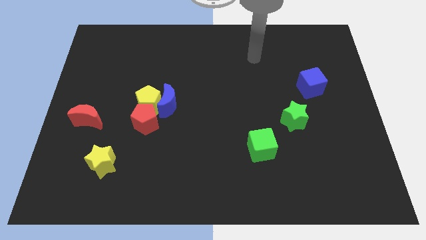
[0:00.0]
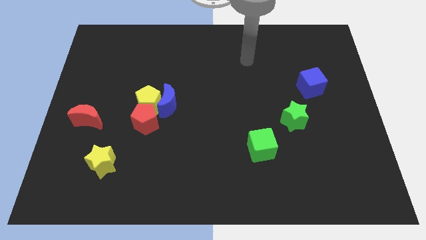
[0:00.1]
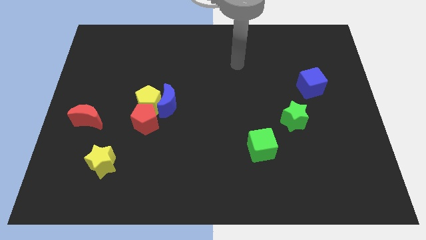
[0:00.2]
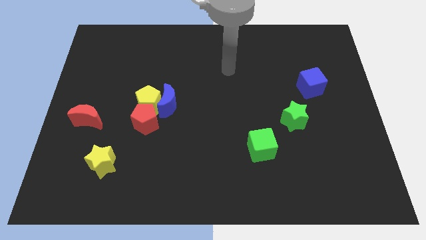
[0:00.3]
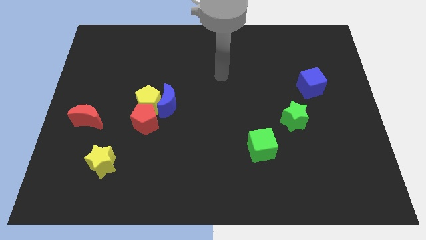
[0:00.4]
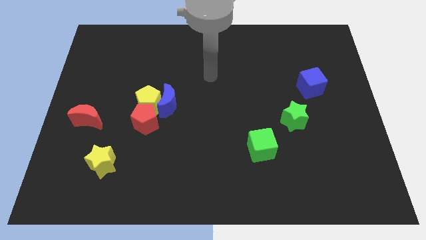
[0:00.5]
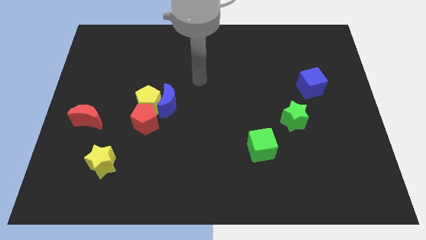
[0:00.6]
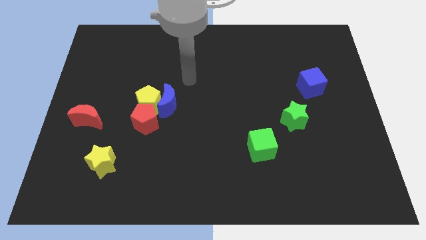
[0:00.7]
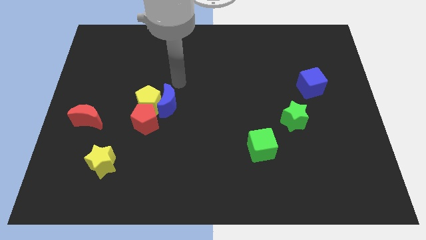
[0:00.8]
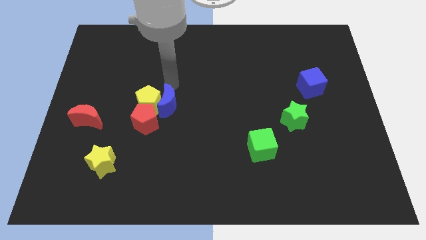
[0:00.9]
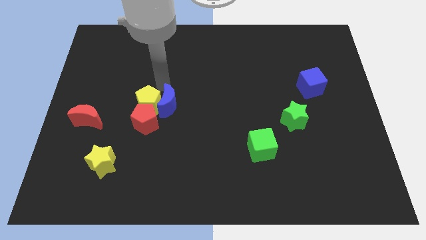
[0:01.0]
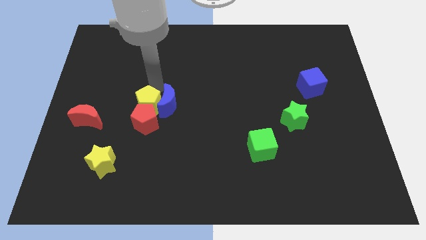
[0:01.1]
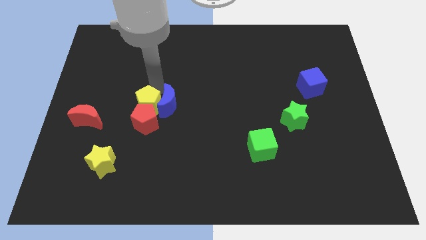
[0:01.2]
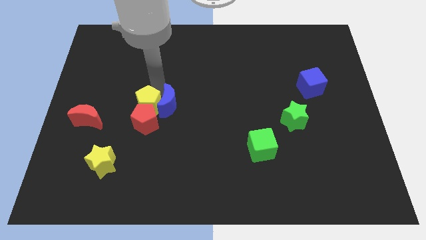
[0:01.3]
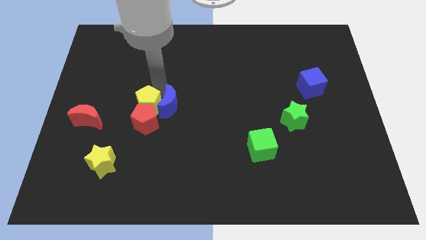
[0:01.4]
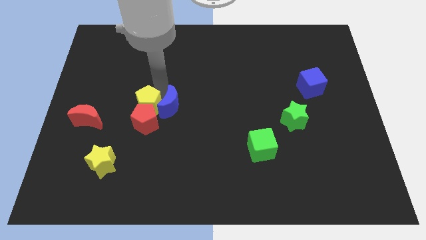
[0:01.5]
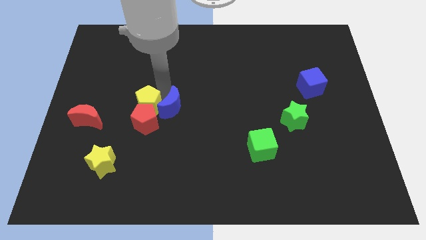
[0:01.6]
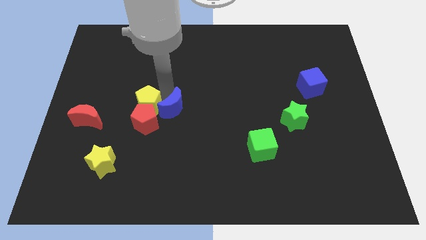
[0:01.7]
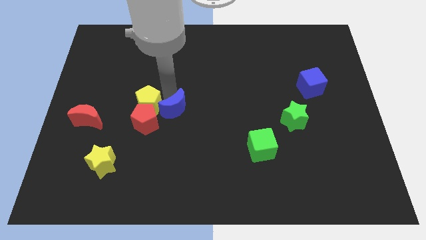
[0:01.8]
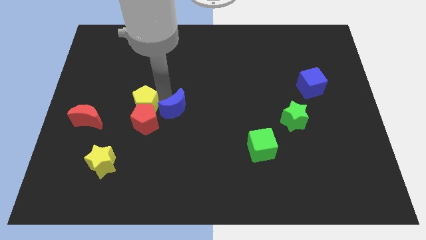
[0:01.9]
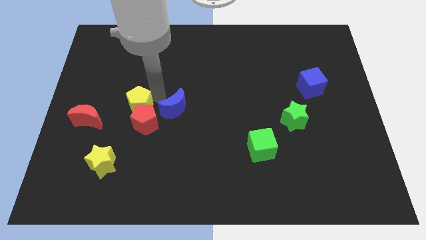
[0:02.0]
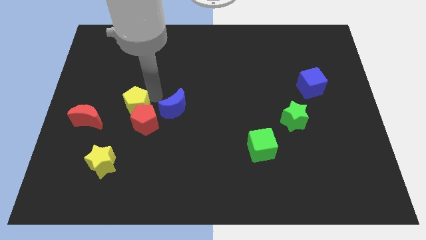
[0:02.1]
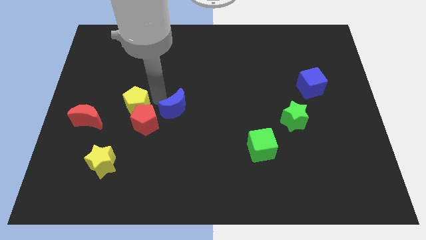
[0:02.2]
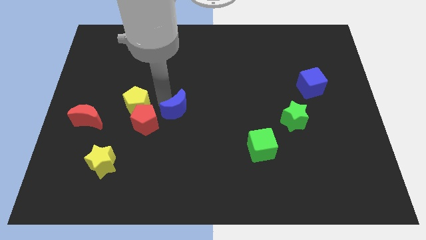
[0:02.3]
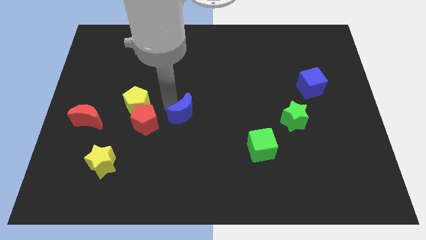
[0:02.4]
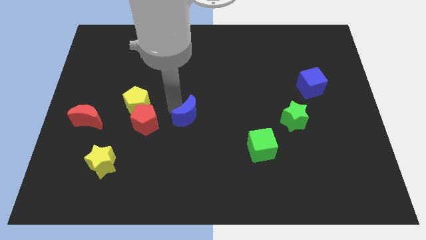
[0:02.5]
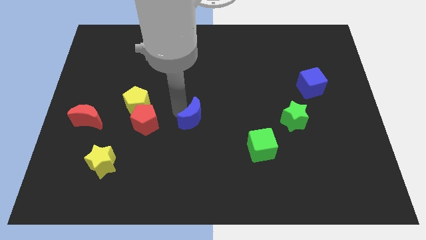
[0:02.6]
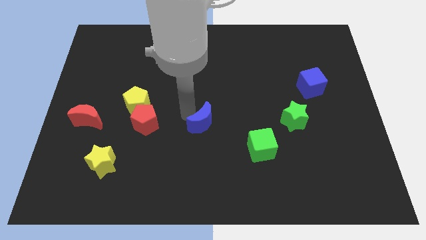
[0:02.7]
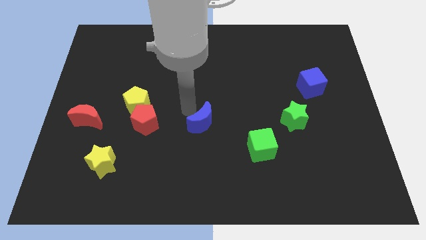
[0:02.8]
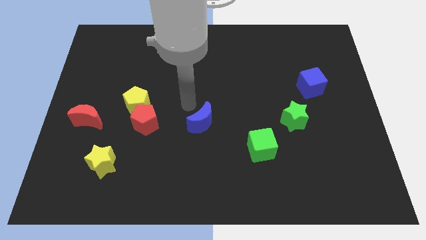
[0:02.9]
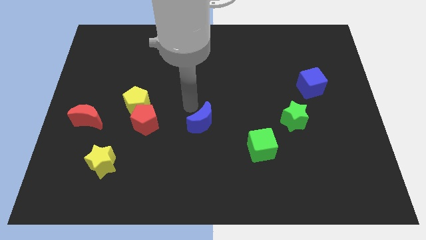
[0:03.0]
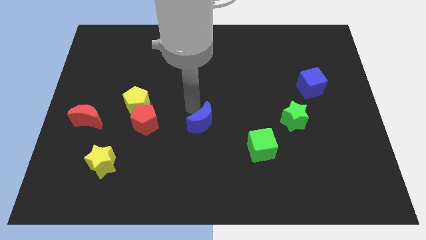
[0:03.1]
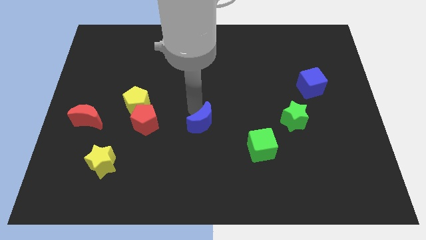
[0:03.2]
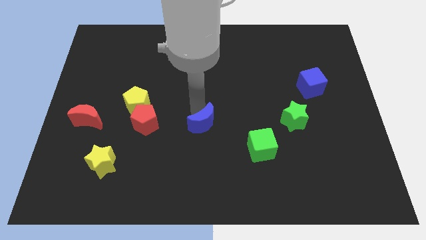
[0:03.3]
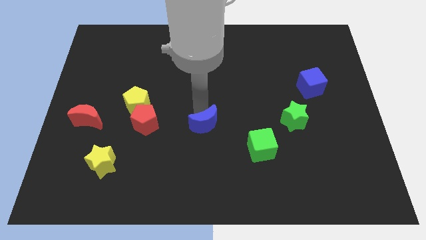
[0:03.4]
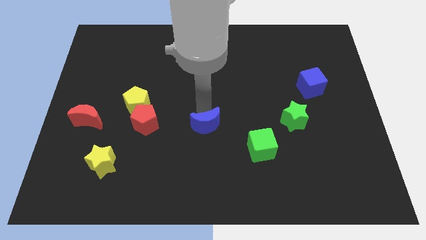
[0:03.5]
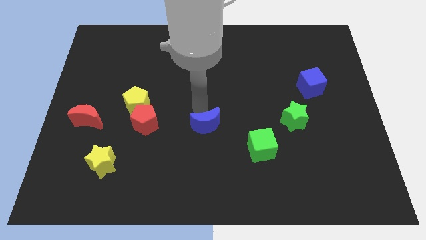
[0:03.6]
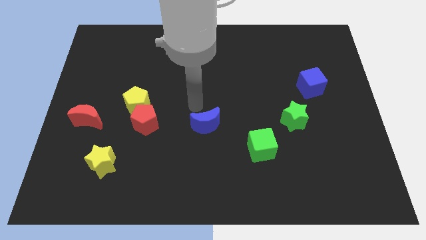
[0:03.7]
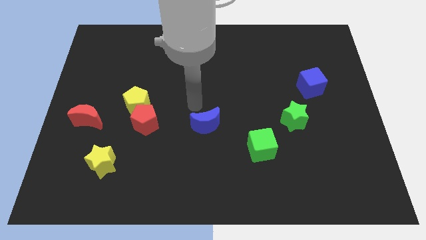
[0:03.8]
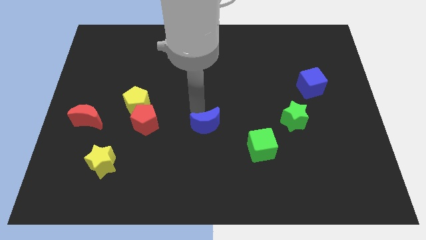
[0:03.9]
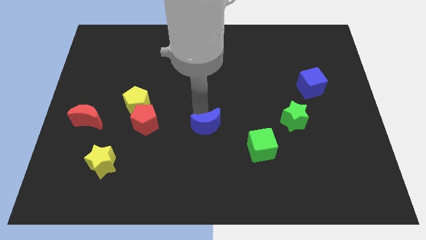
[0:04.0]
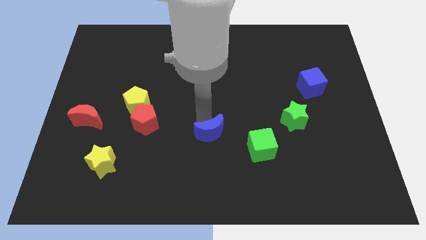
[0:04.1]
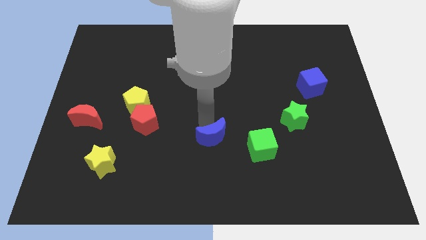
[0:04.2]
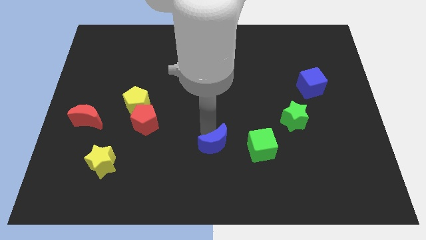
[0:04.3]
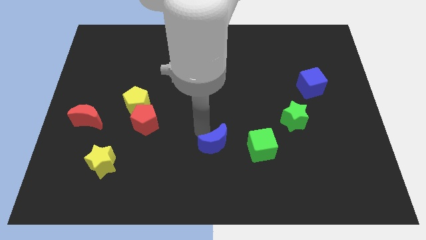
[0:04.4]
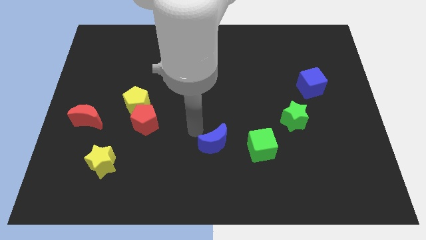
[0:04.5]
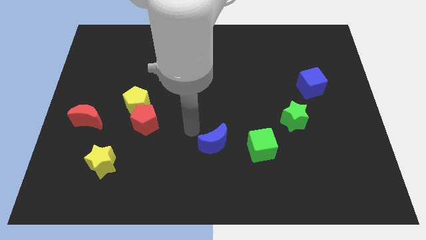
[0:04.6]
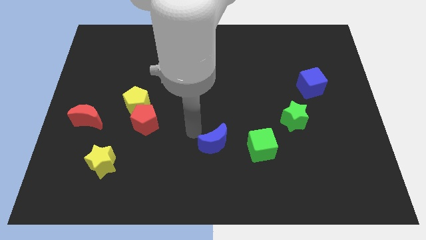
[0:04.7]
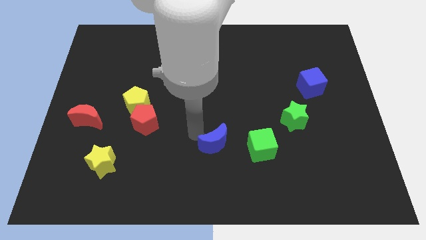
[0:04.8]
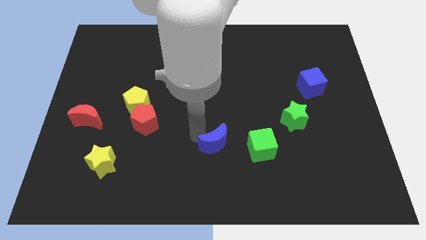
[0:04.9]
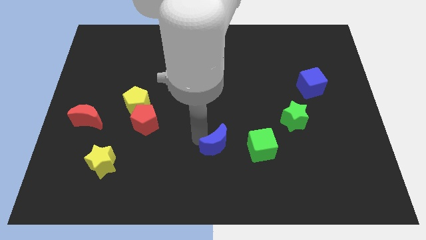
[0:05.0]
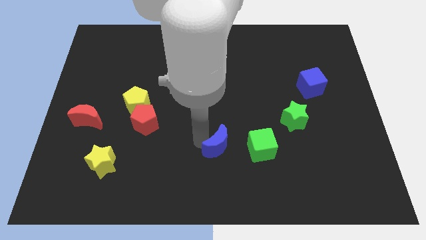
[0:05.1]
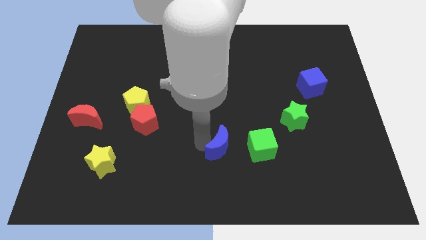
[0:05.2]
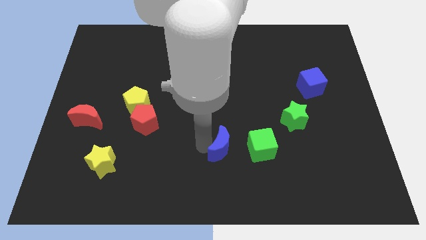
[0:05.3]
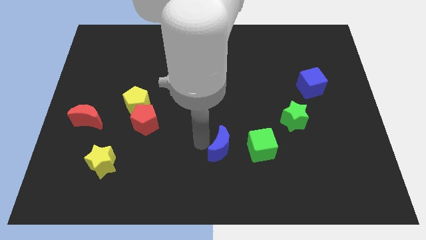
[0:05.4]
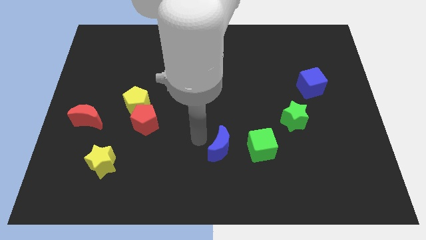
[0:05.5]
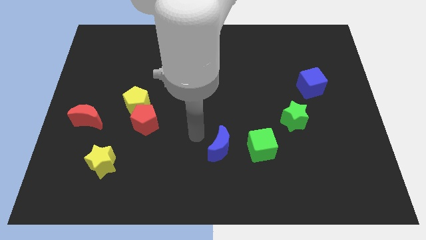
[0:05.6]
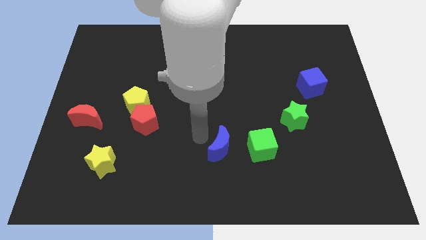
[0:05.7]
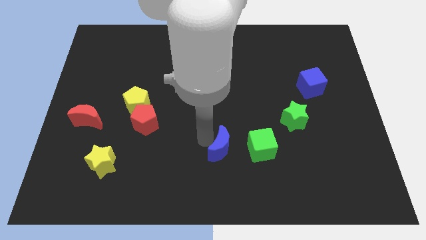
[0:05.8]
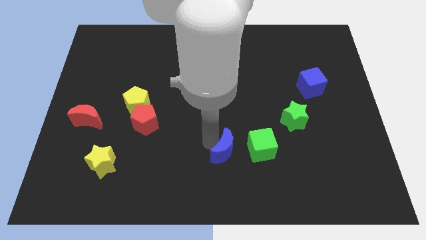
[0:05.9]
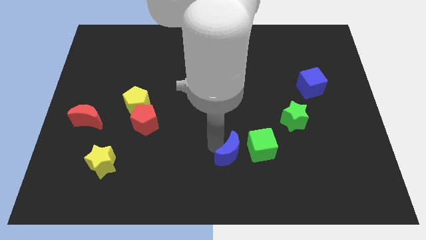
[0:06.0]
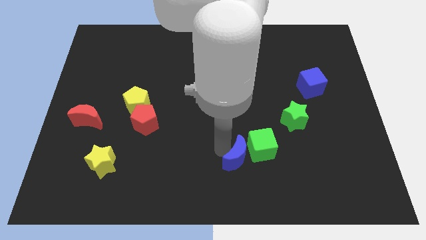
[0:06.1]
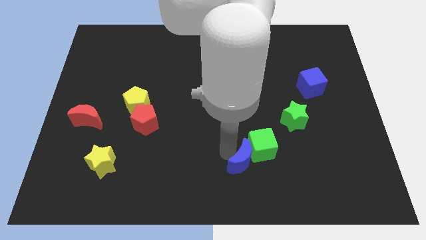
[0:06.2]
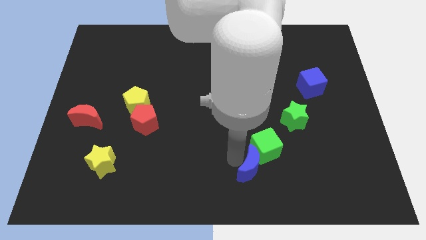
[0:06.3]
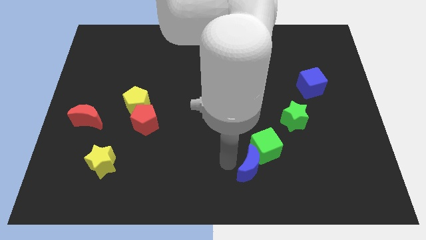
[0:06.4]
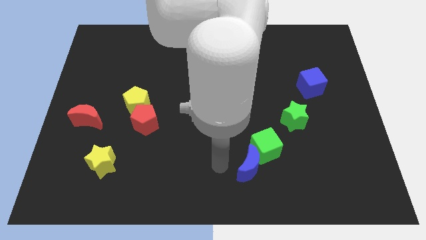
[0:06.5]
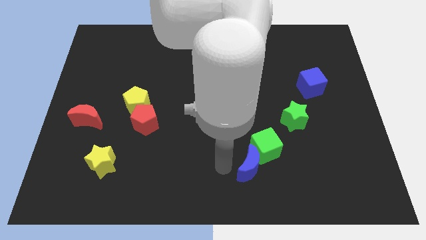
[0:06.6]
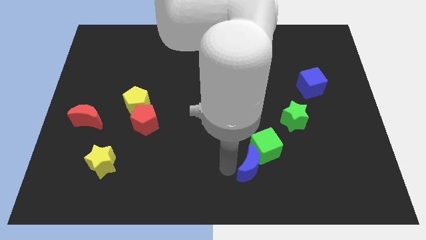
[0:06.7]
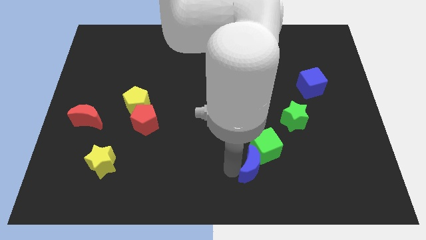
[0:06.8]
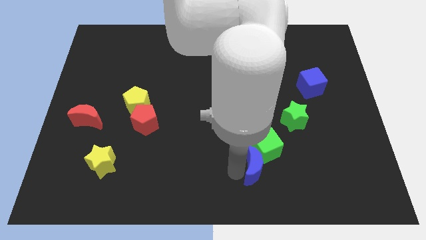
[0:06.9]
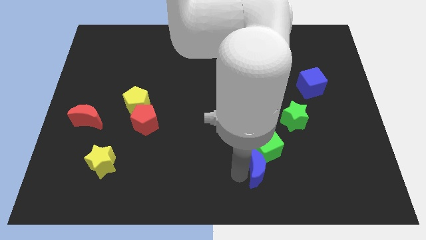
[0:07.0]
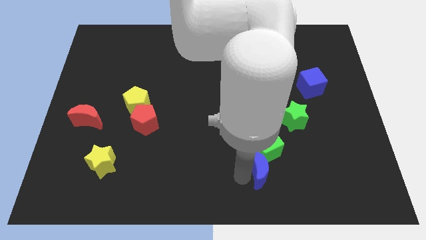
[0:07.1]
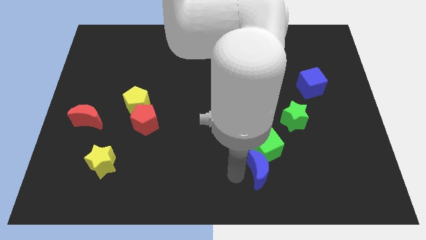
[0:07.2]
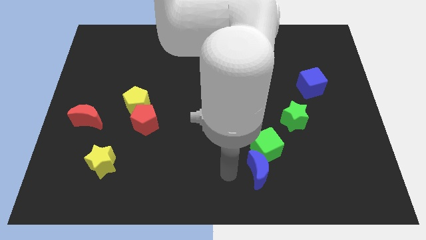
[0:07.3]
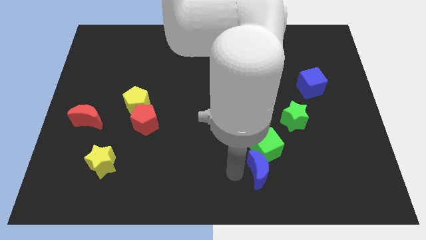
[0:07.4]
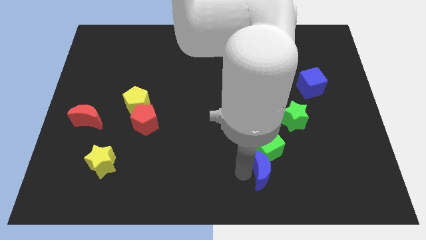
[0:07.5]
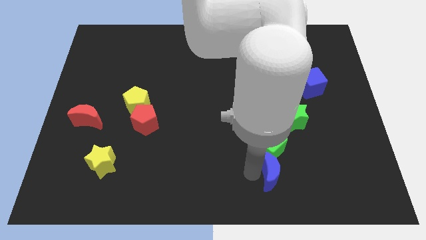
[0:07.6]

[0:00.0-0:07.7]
slide the blue moon to the bottom right side of the green cube
